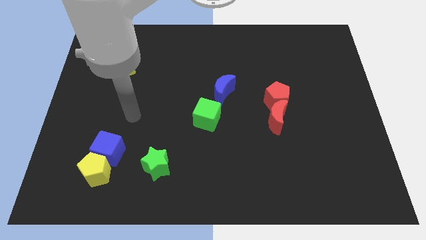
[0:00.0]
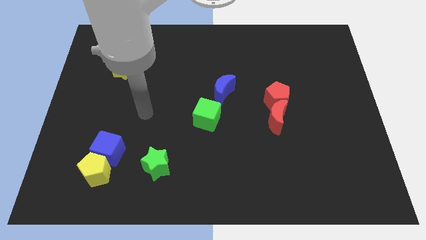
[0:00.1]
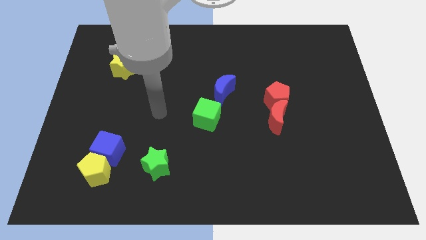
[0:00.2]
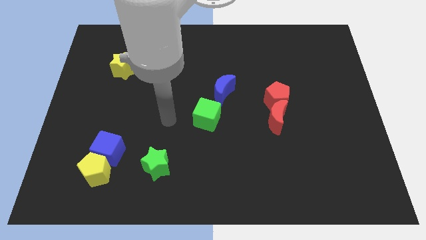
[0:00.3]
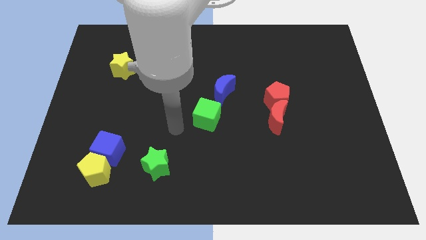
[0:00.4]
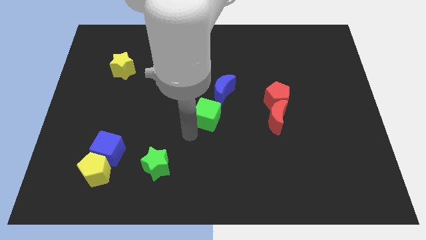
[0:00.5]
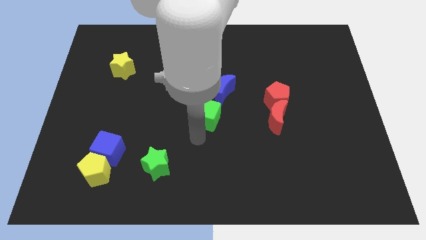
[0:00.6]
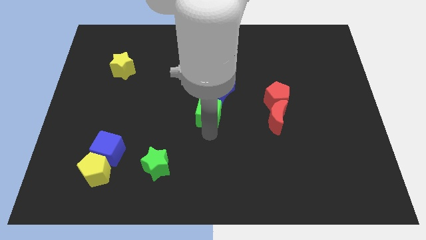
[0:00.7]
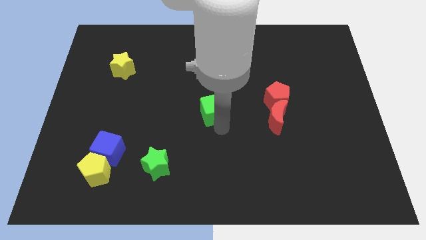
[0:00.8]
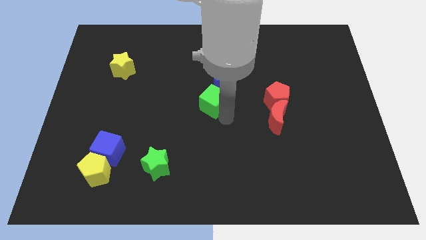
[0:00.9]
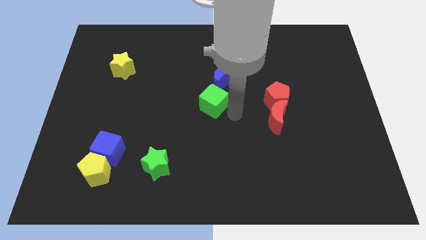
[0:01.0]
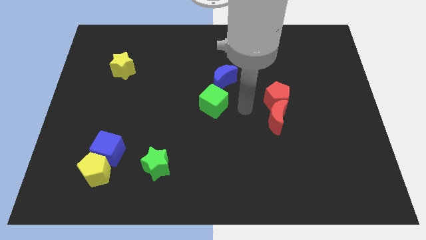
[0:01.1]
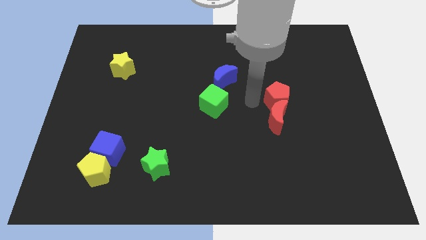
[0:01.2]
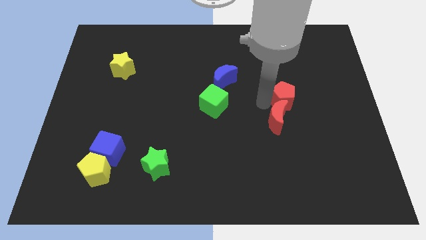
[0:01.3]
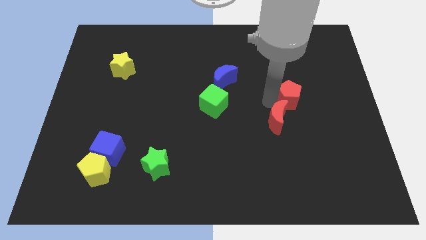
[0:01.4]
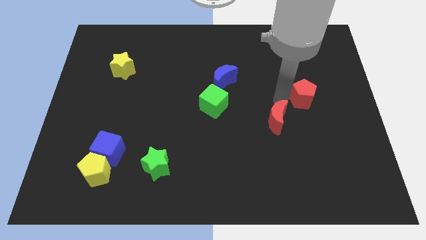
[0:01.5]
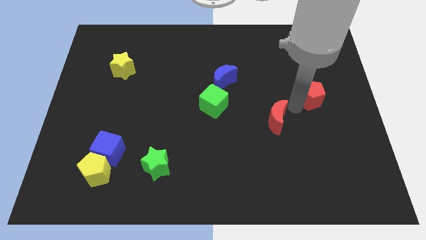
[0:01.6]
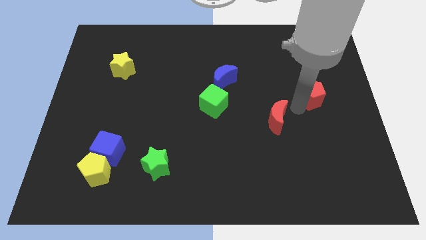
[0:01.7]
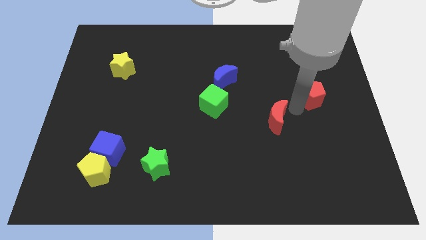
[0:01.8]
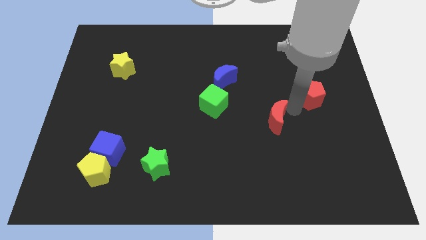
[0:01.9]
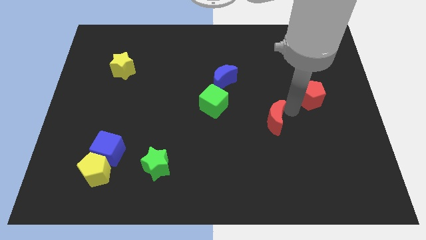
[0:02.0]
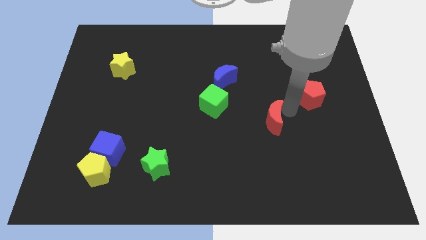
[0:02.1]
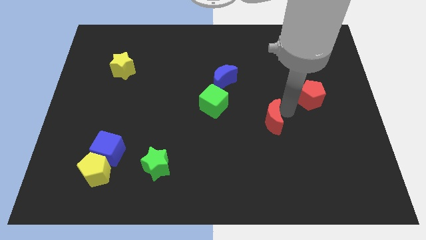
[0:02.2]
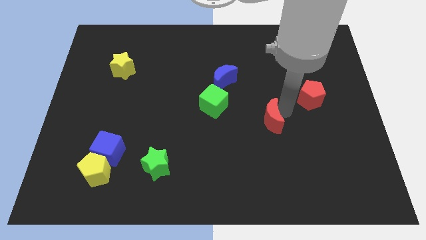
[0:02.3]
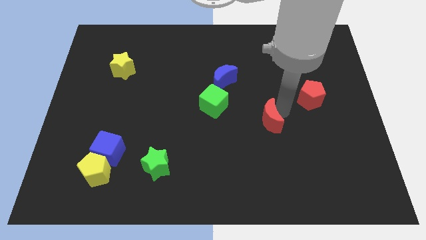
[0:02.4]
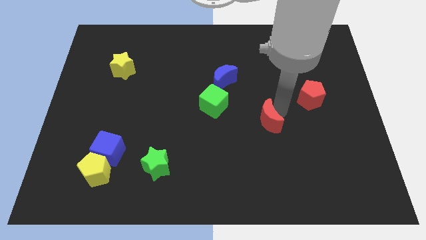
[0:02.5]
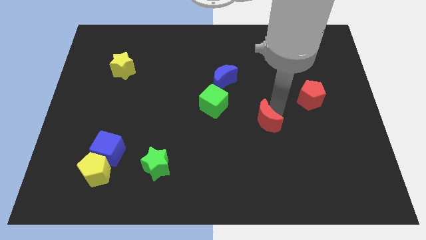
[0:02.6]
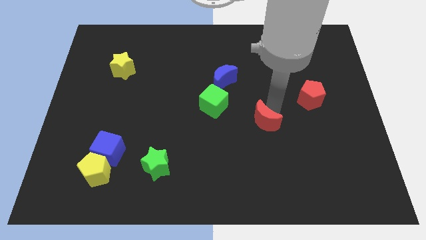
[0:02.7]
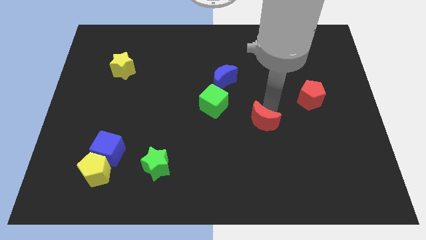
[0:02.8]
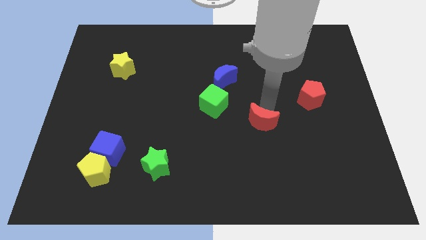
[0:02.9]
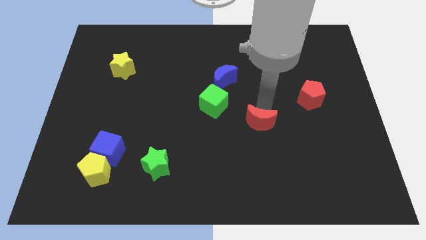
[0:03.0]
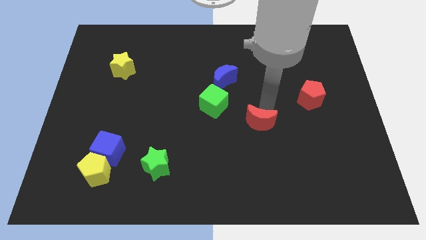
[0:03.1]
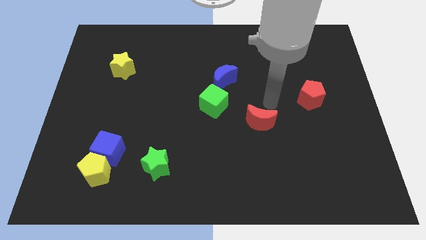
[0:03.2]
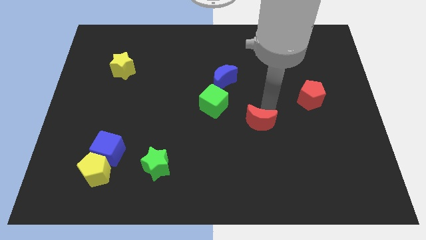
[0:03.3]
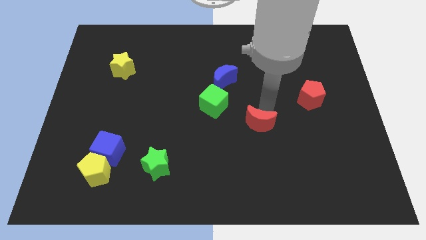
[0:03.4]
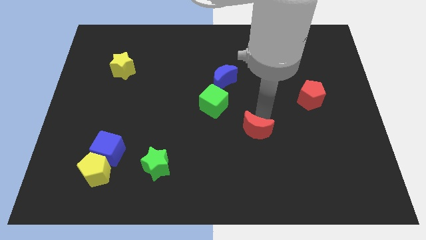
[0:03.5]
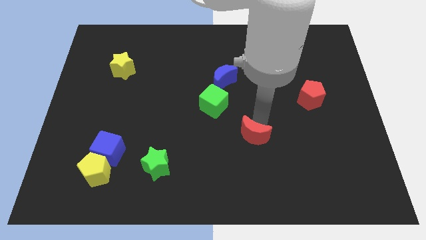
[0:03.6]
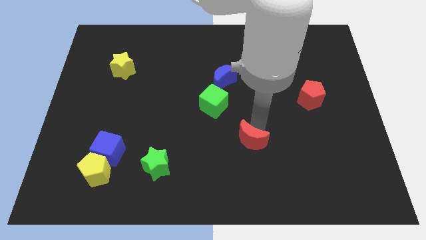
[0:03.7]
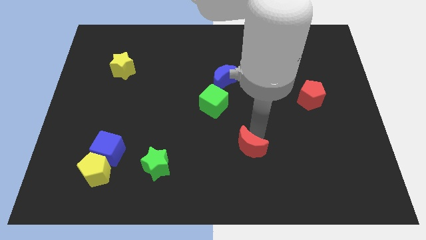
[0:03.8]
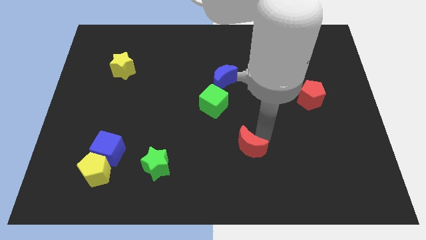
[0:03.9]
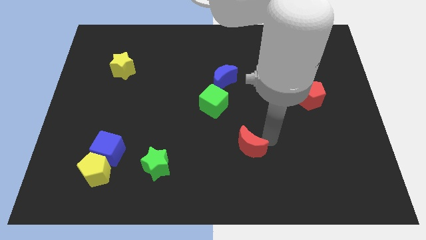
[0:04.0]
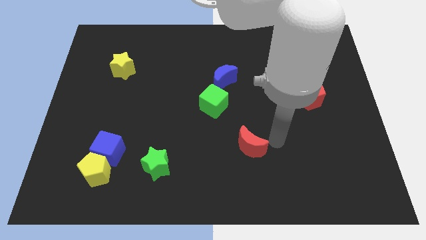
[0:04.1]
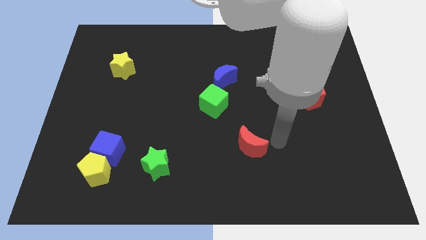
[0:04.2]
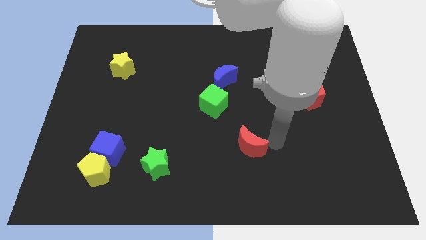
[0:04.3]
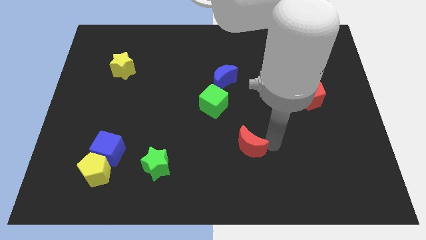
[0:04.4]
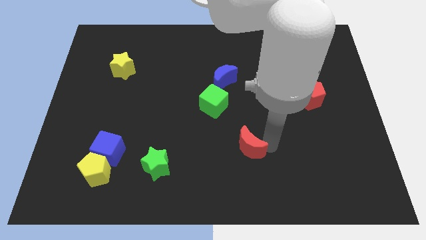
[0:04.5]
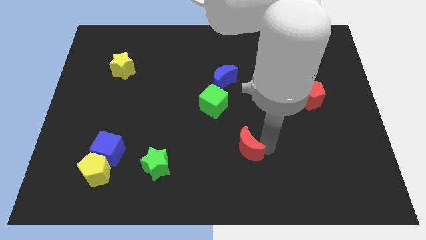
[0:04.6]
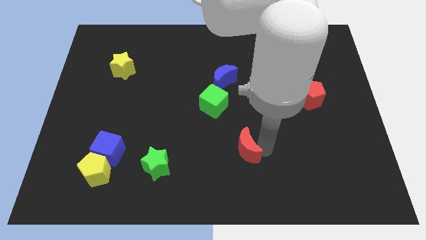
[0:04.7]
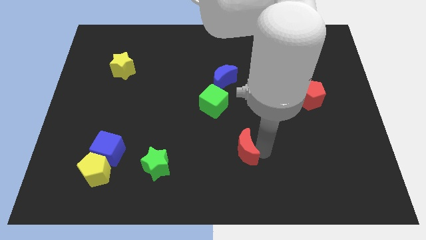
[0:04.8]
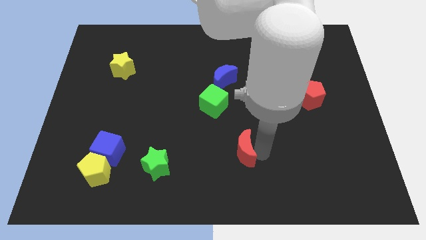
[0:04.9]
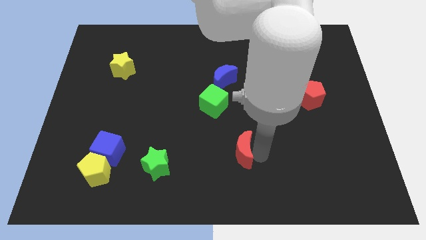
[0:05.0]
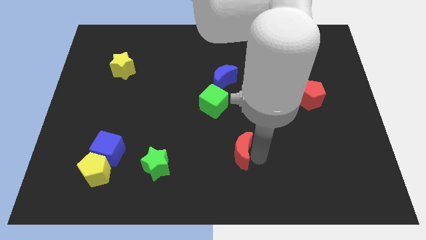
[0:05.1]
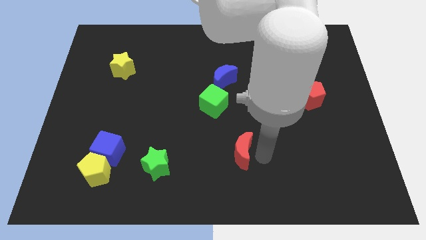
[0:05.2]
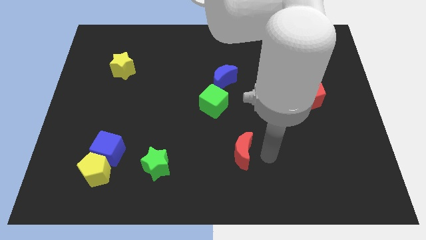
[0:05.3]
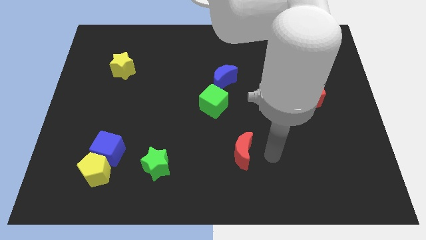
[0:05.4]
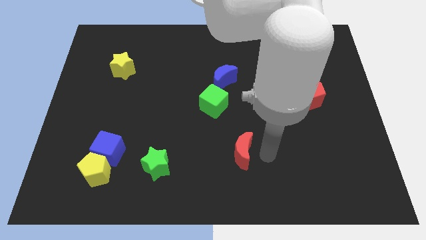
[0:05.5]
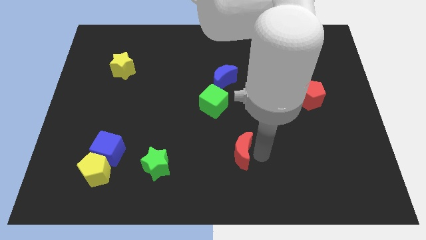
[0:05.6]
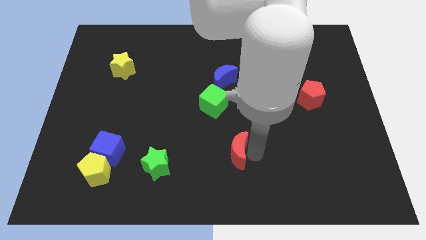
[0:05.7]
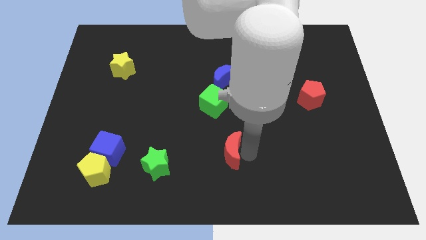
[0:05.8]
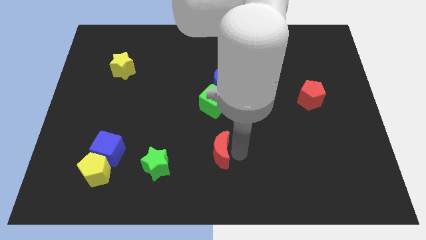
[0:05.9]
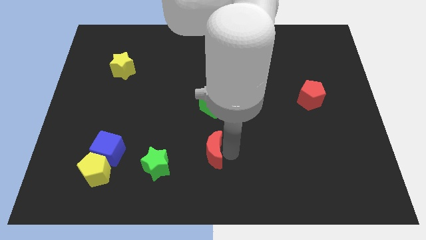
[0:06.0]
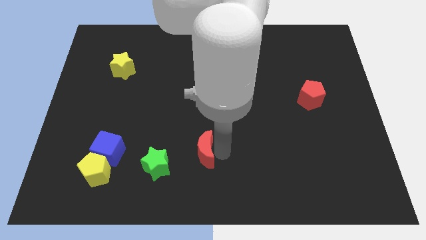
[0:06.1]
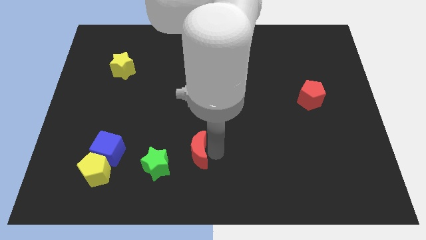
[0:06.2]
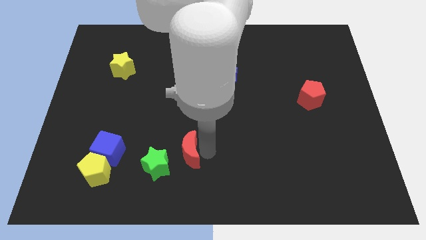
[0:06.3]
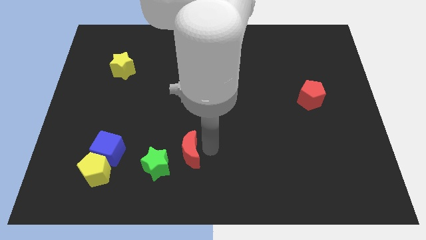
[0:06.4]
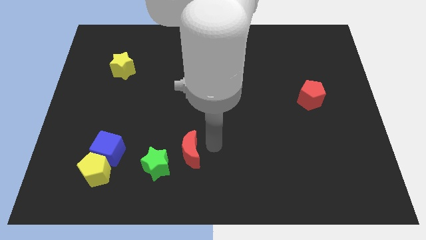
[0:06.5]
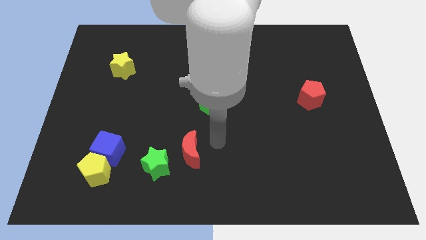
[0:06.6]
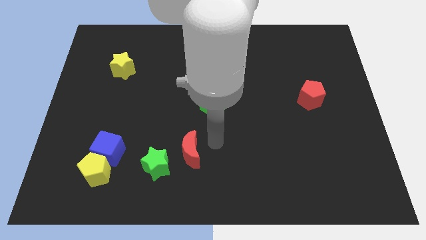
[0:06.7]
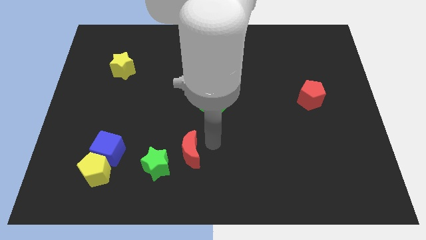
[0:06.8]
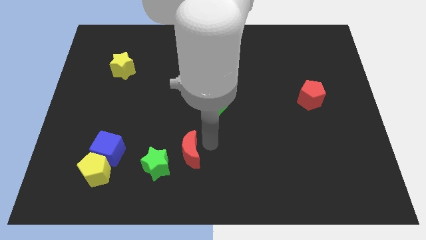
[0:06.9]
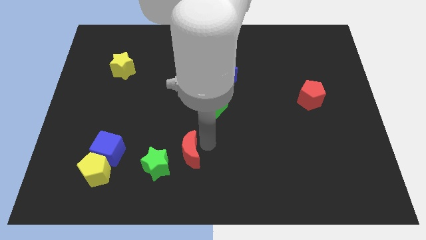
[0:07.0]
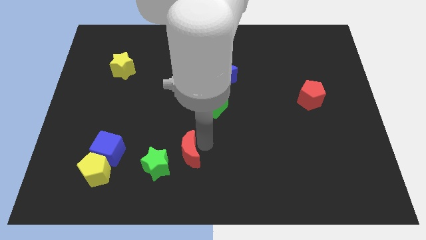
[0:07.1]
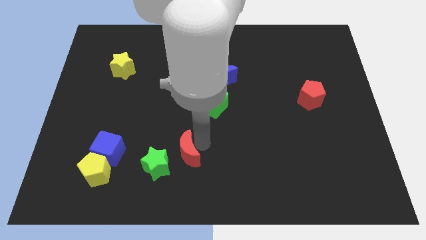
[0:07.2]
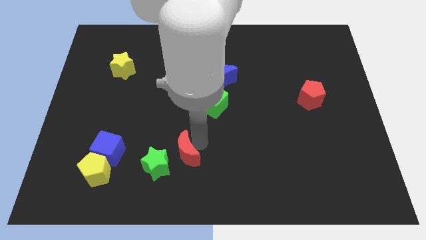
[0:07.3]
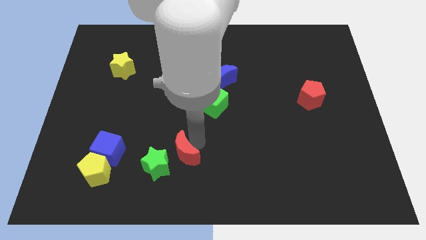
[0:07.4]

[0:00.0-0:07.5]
slide the red moon close to the green star
